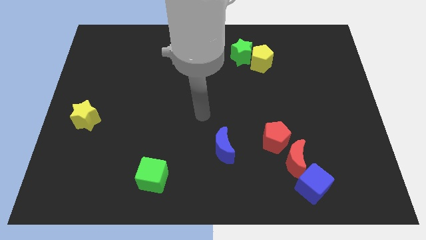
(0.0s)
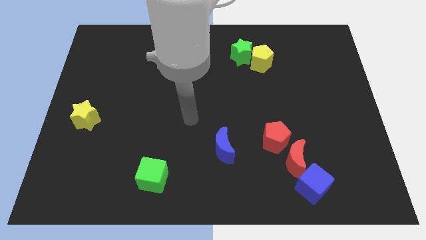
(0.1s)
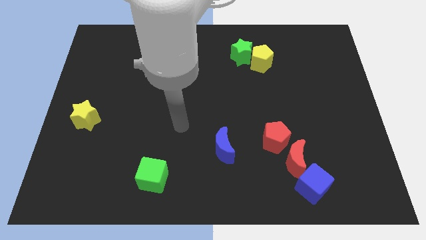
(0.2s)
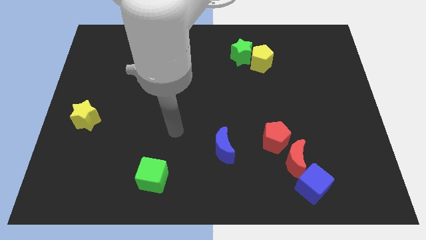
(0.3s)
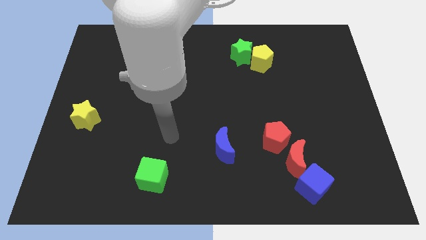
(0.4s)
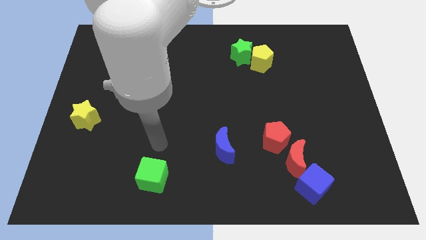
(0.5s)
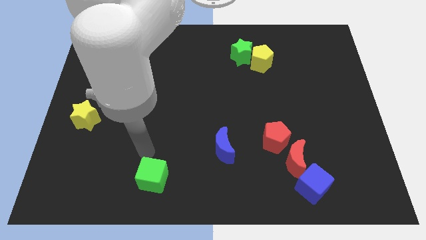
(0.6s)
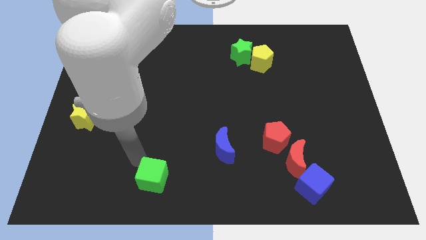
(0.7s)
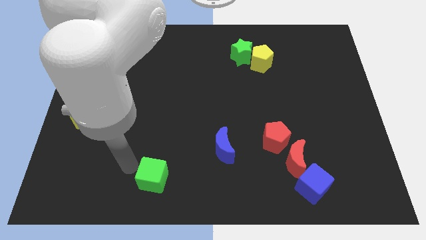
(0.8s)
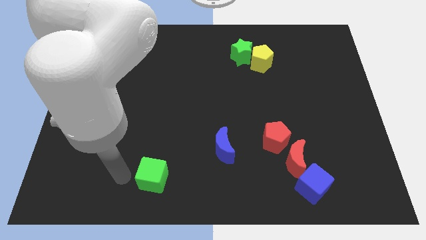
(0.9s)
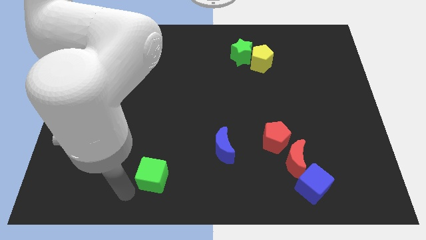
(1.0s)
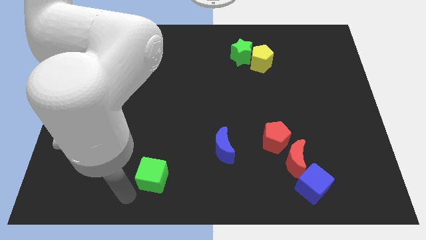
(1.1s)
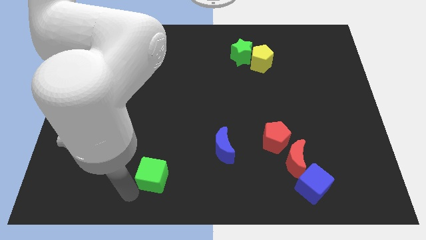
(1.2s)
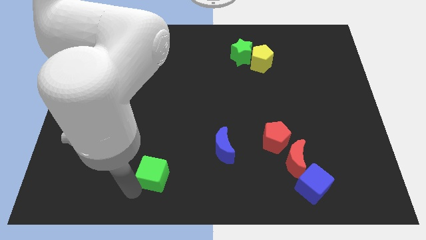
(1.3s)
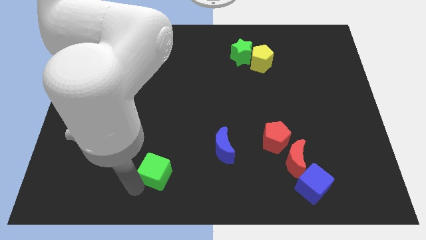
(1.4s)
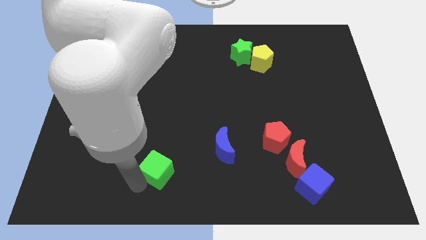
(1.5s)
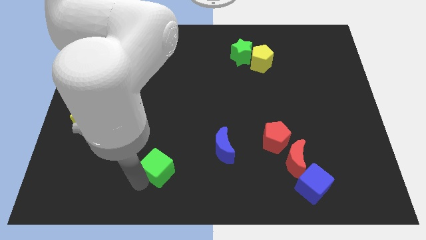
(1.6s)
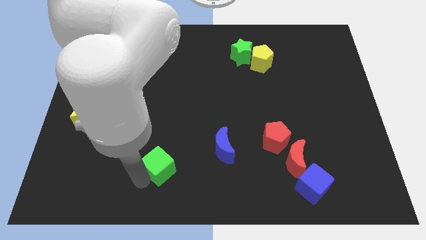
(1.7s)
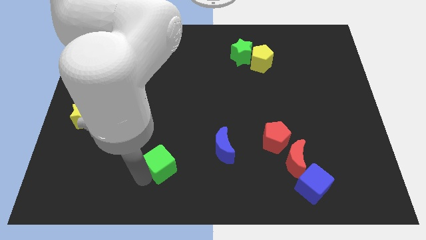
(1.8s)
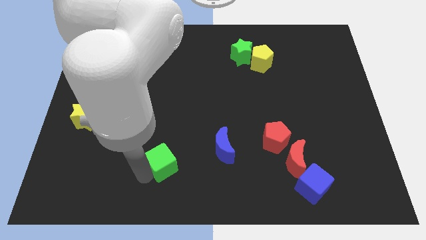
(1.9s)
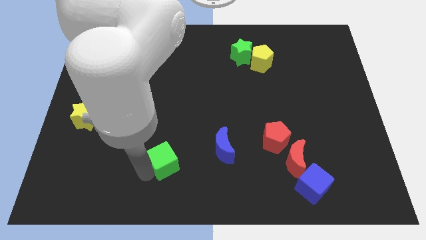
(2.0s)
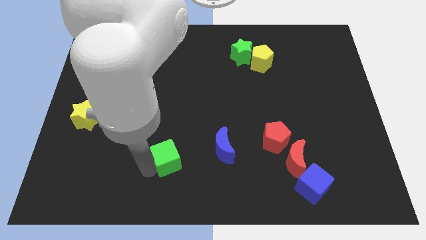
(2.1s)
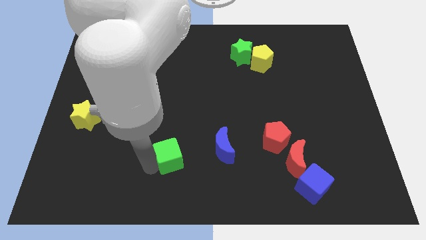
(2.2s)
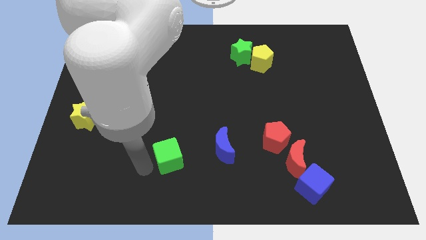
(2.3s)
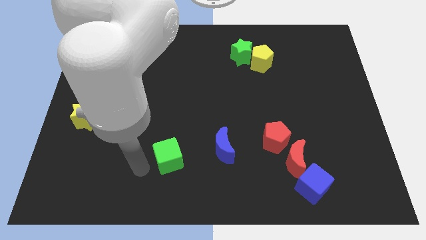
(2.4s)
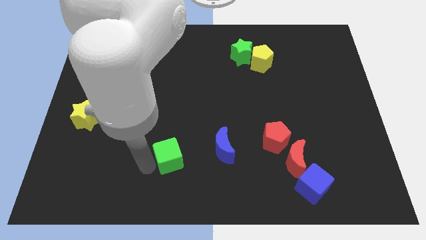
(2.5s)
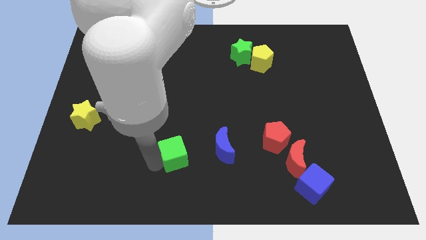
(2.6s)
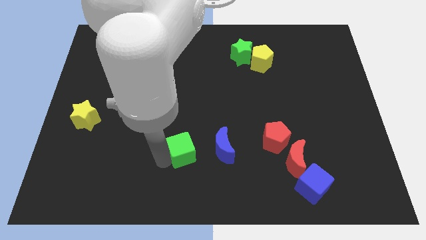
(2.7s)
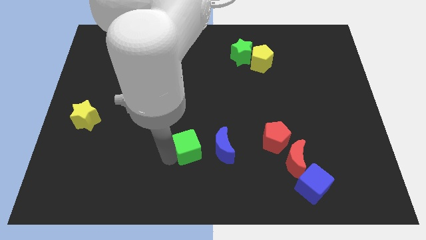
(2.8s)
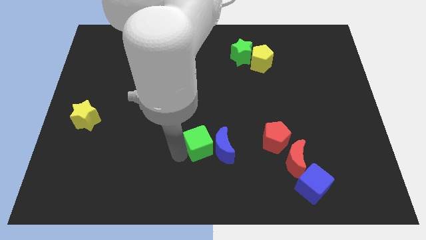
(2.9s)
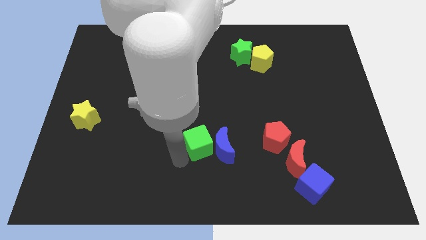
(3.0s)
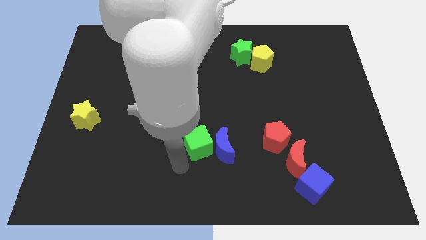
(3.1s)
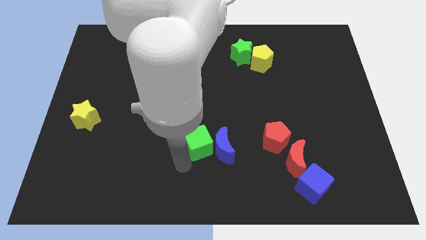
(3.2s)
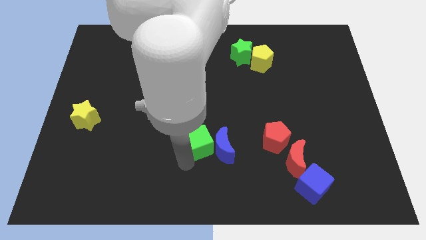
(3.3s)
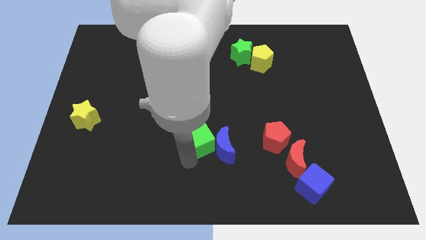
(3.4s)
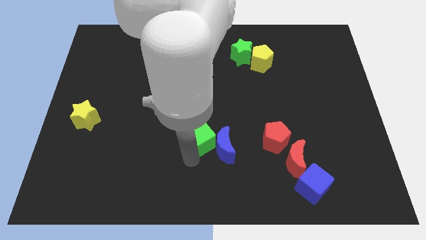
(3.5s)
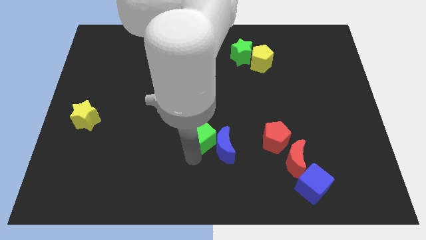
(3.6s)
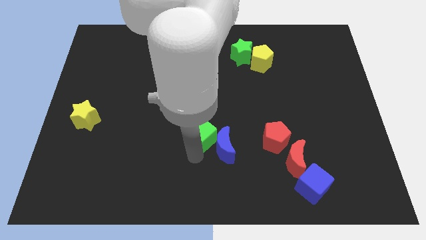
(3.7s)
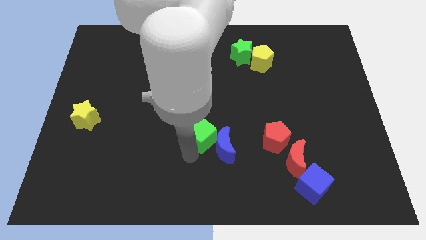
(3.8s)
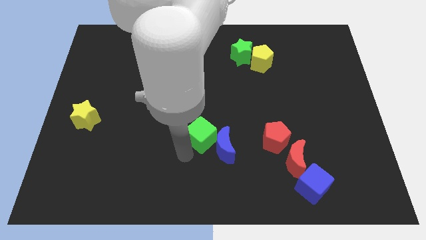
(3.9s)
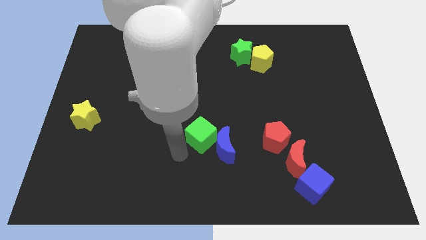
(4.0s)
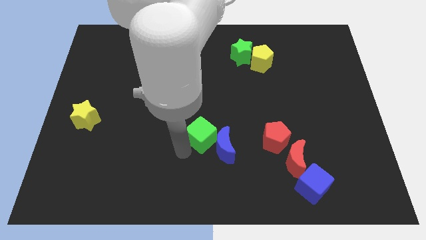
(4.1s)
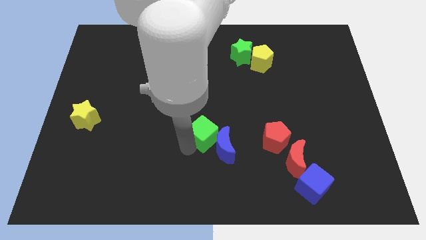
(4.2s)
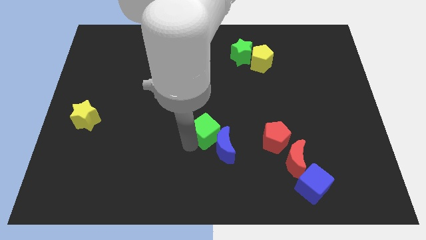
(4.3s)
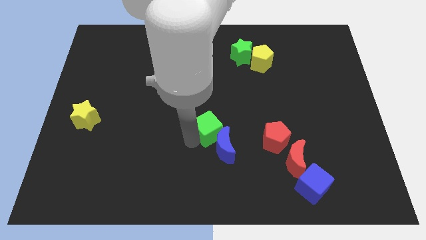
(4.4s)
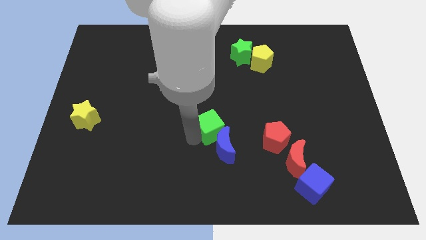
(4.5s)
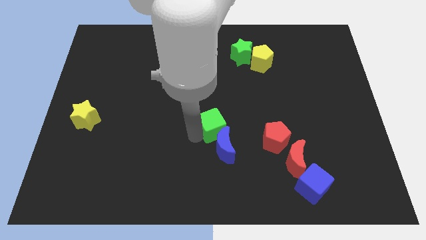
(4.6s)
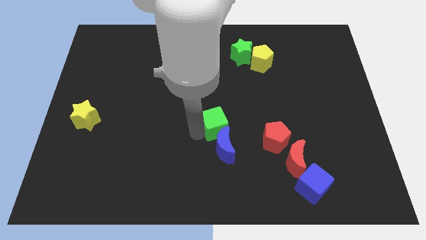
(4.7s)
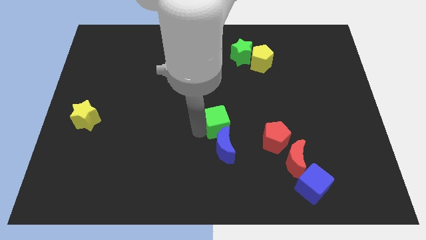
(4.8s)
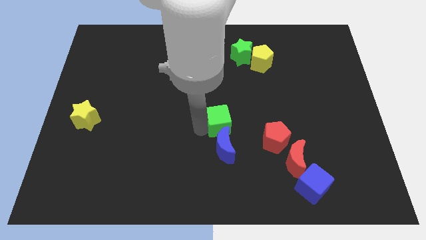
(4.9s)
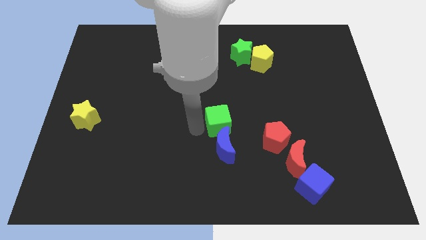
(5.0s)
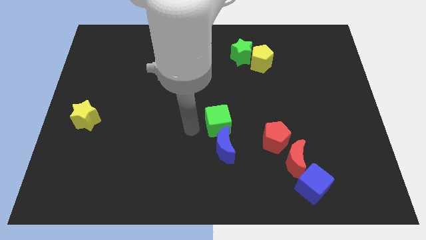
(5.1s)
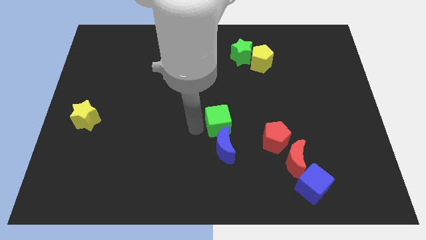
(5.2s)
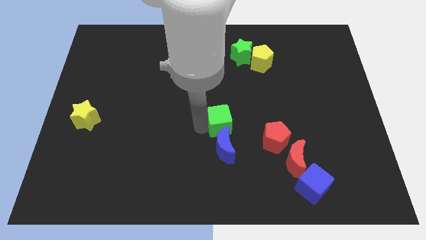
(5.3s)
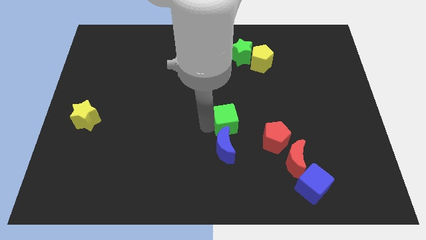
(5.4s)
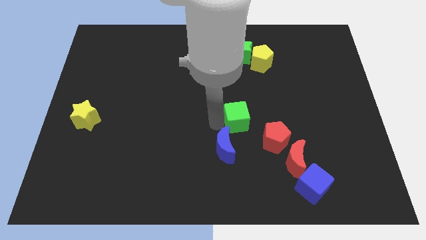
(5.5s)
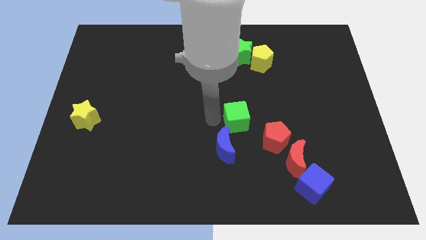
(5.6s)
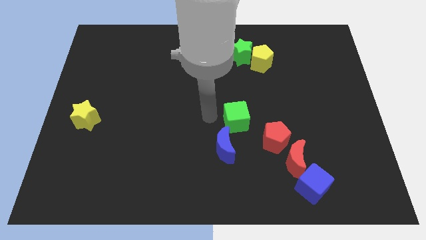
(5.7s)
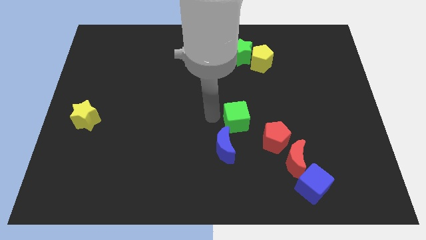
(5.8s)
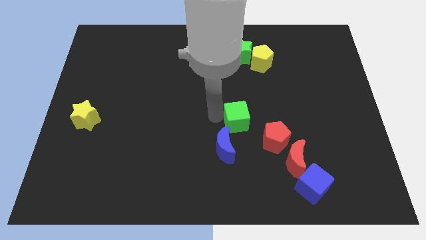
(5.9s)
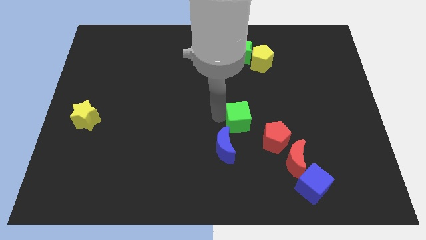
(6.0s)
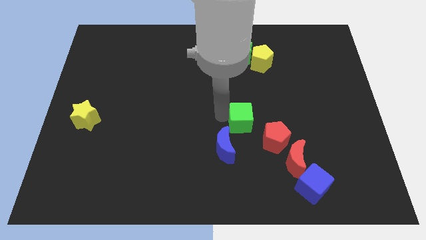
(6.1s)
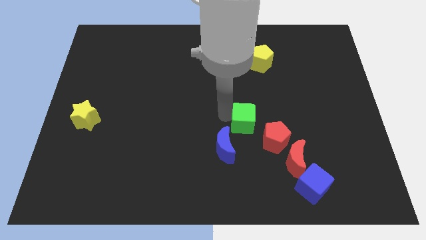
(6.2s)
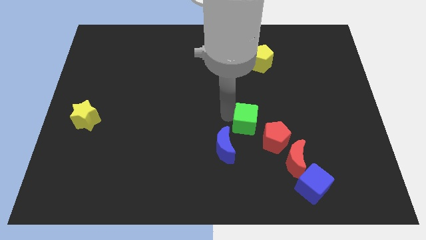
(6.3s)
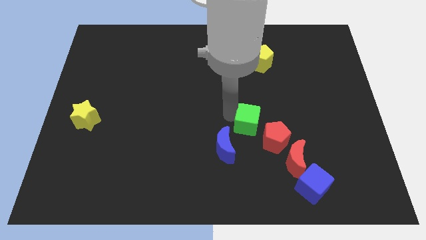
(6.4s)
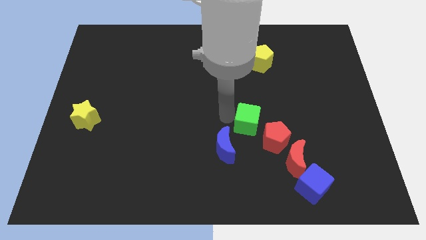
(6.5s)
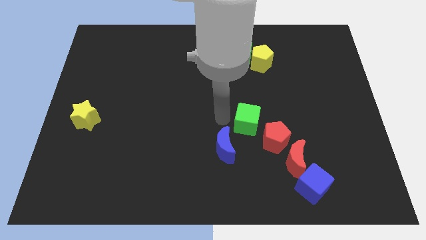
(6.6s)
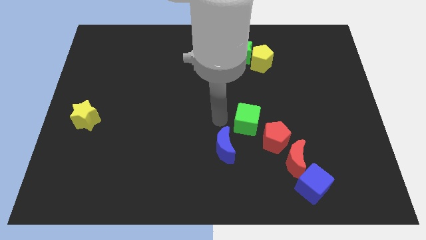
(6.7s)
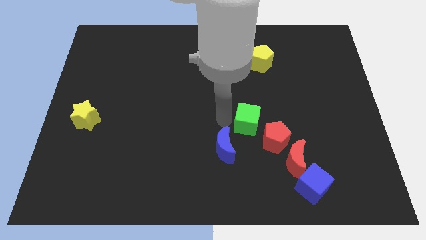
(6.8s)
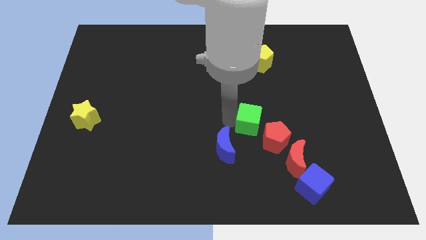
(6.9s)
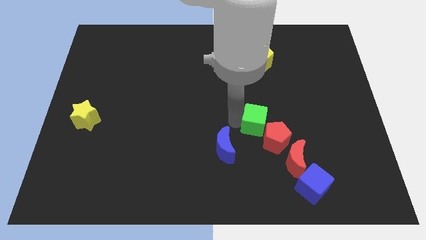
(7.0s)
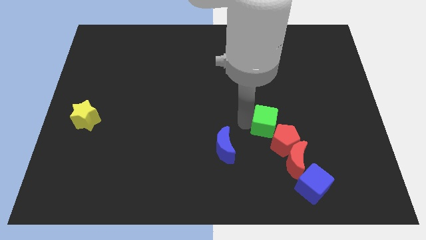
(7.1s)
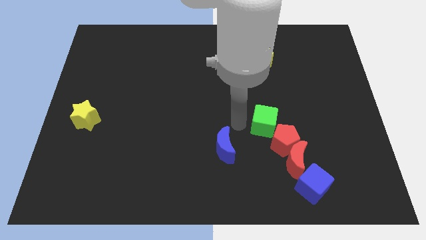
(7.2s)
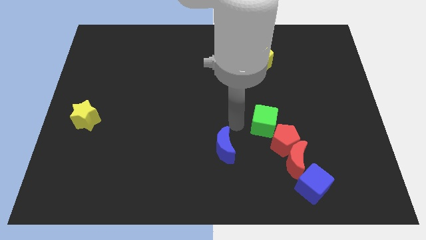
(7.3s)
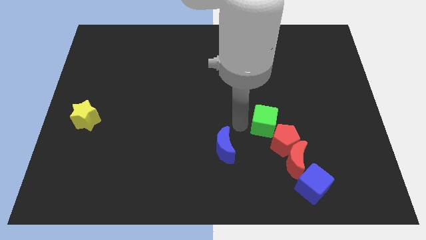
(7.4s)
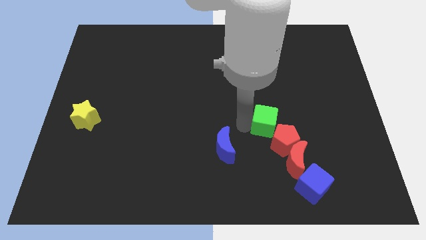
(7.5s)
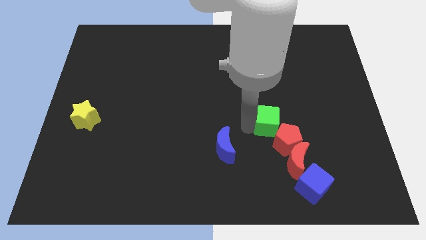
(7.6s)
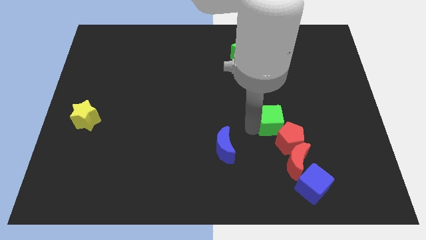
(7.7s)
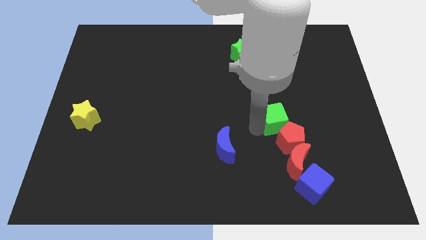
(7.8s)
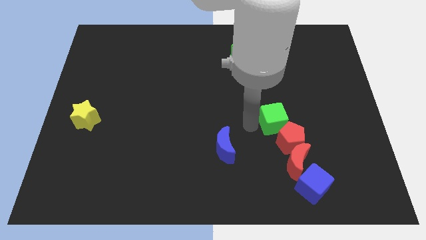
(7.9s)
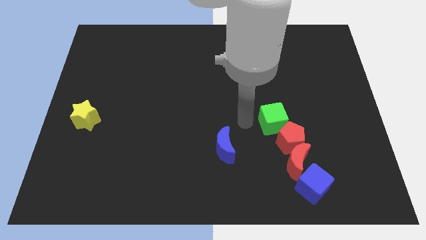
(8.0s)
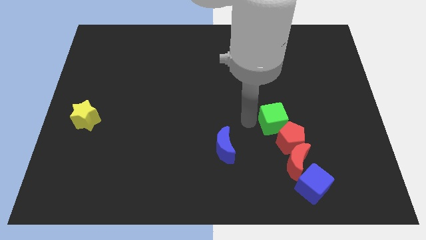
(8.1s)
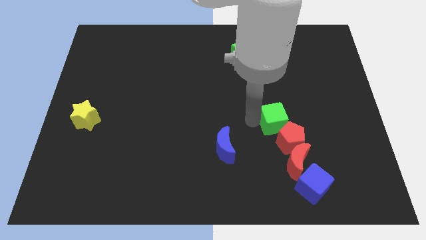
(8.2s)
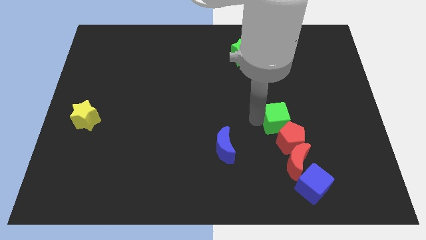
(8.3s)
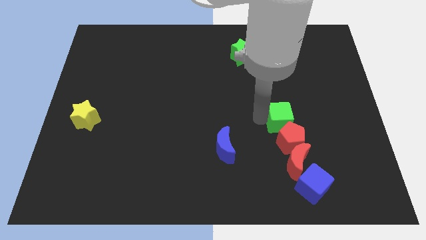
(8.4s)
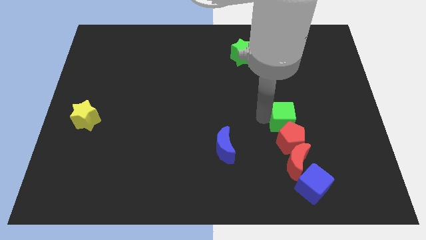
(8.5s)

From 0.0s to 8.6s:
push the green cube to the top right of the red pentagon
